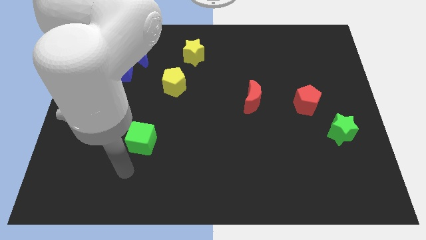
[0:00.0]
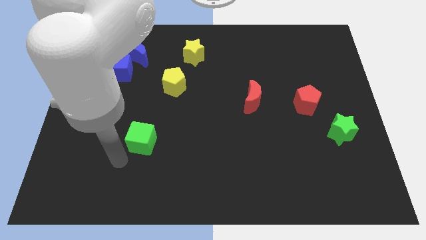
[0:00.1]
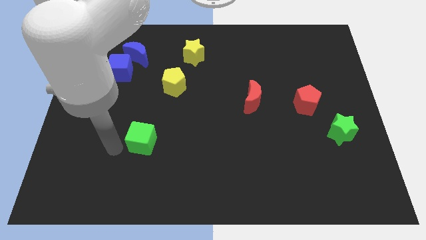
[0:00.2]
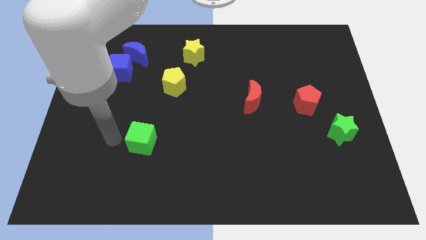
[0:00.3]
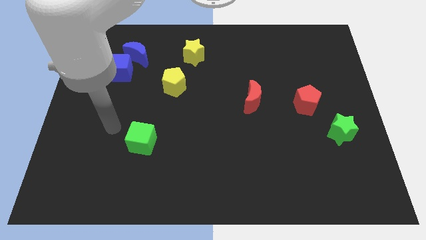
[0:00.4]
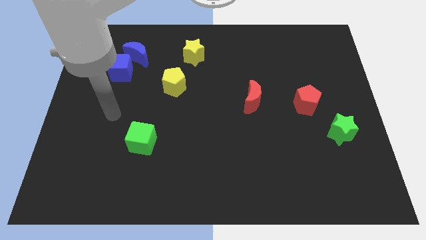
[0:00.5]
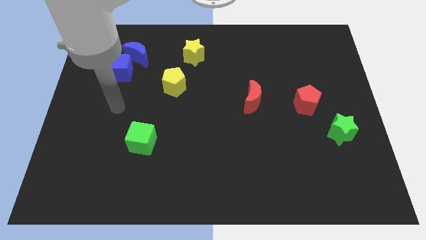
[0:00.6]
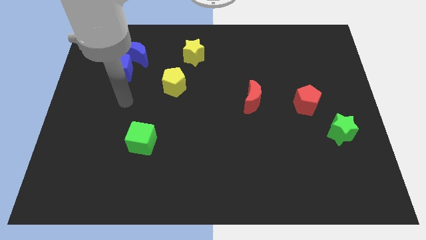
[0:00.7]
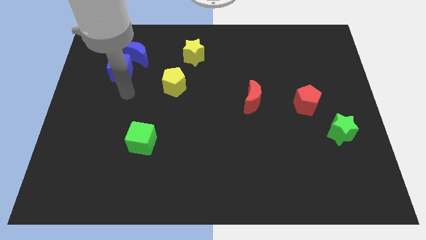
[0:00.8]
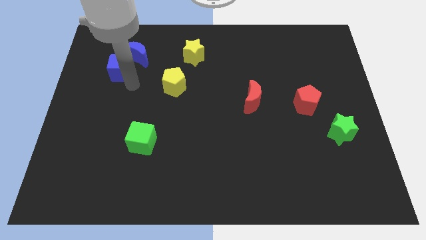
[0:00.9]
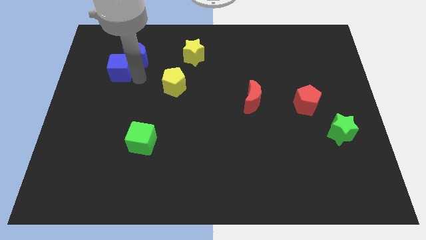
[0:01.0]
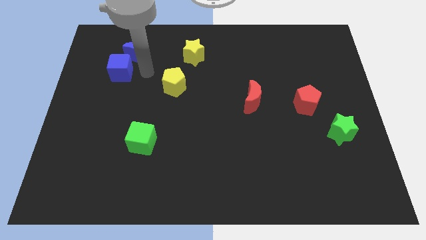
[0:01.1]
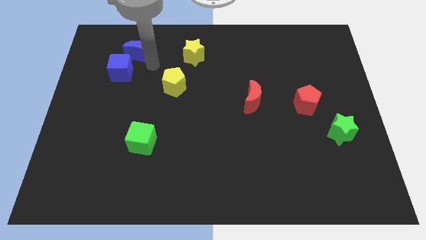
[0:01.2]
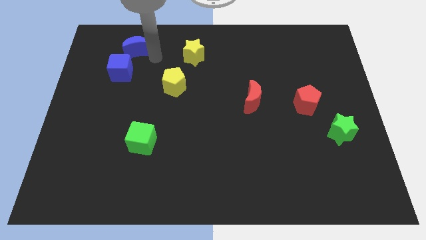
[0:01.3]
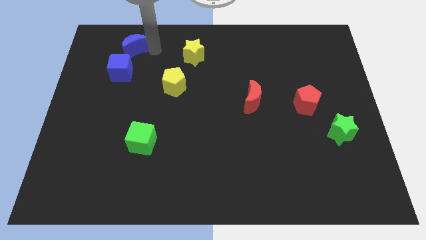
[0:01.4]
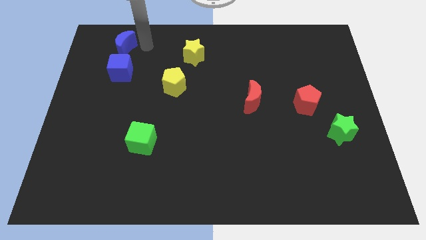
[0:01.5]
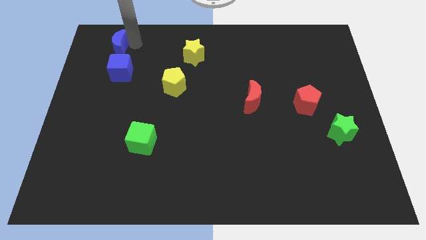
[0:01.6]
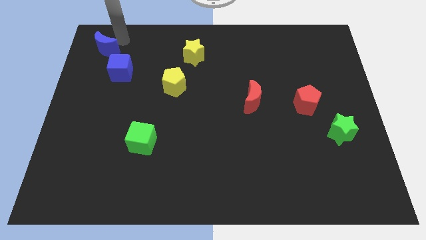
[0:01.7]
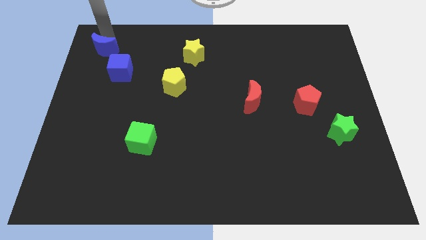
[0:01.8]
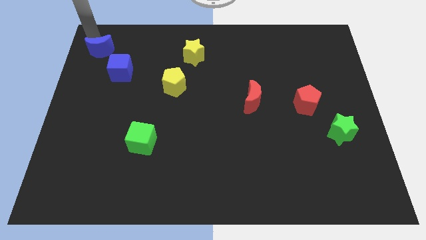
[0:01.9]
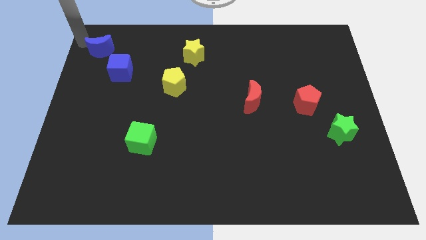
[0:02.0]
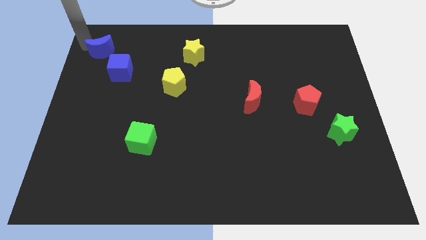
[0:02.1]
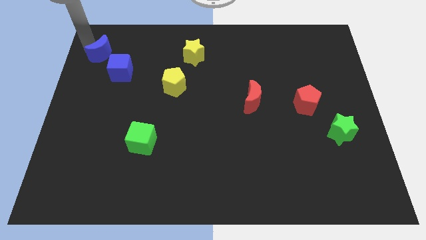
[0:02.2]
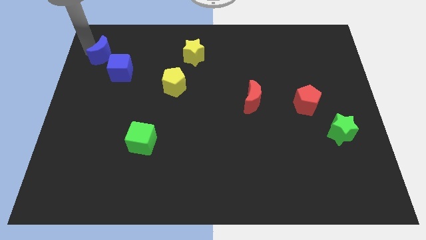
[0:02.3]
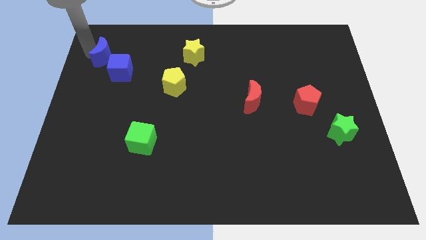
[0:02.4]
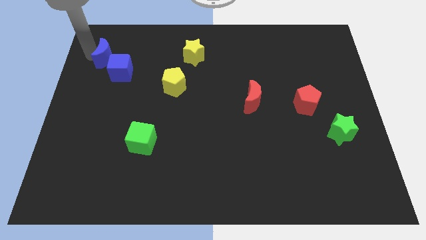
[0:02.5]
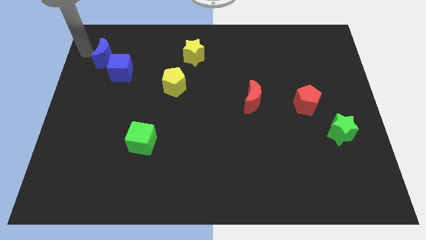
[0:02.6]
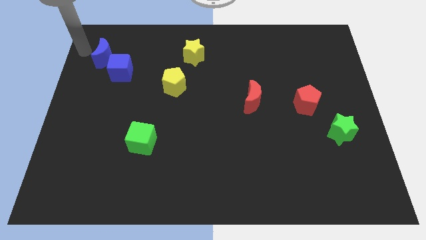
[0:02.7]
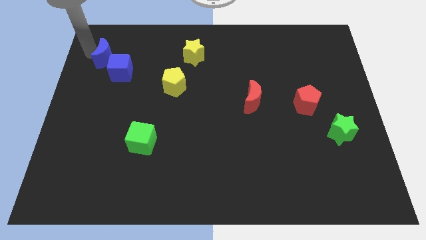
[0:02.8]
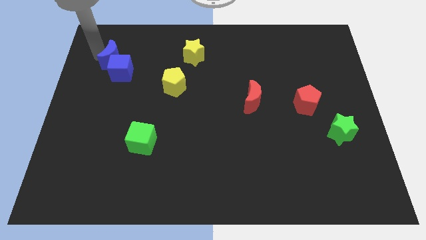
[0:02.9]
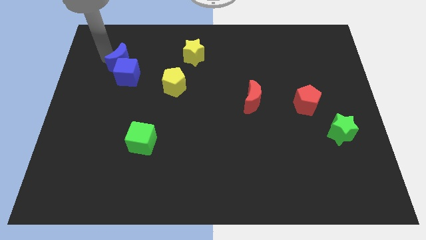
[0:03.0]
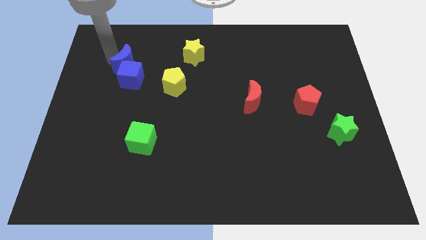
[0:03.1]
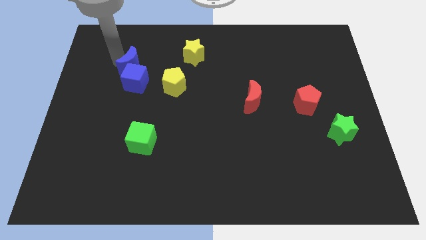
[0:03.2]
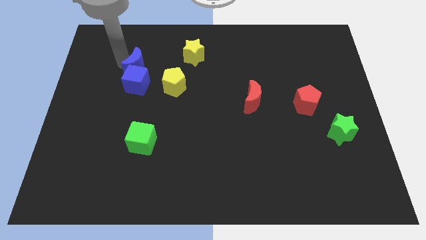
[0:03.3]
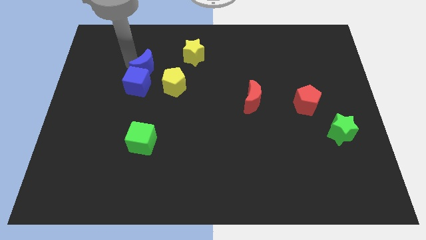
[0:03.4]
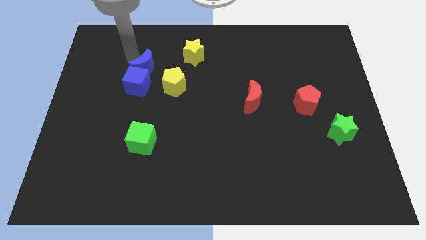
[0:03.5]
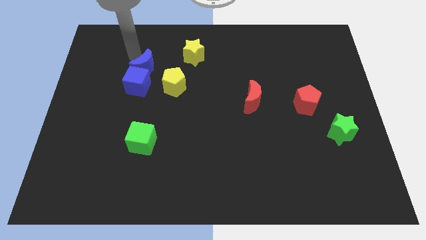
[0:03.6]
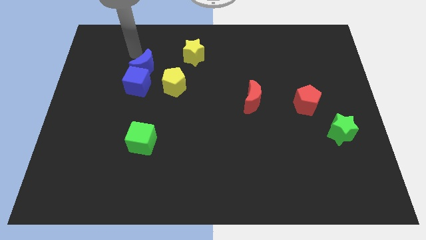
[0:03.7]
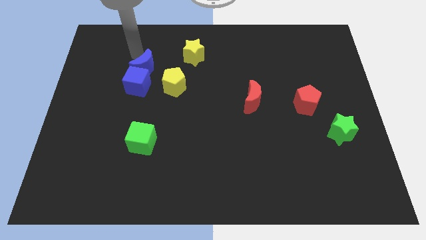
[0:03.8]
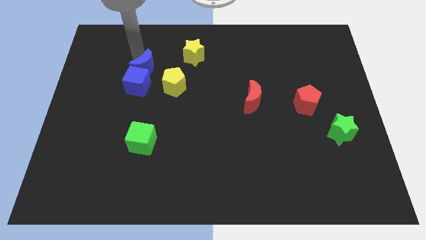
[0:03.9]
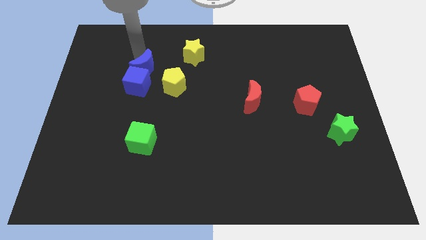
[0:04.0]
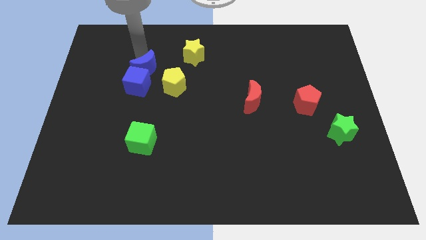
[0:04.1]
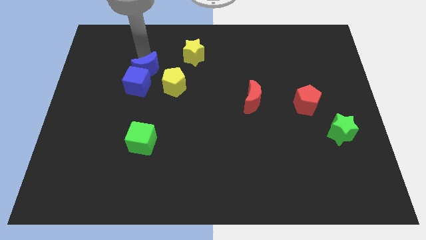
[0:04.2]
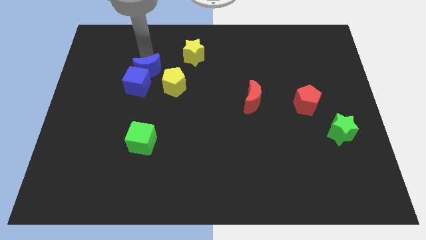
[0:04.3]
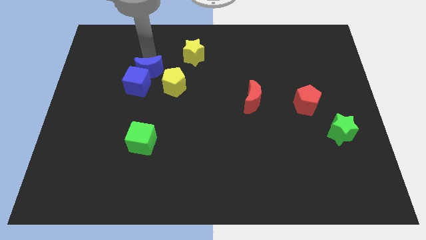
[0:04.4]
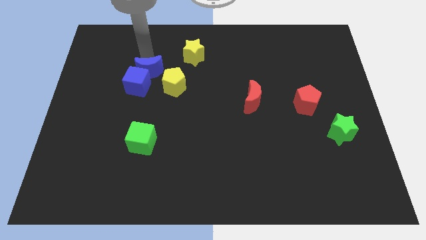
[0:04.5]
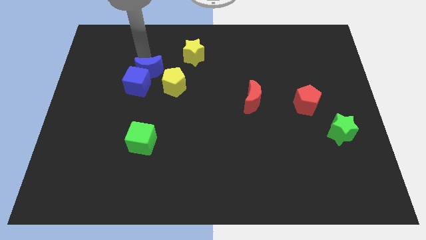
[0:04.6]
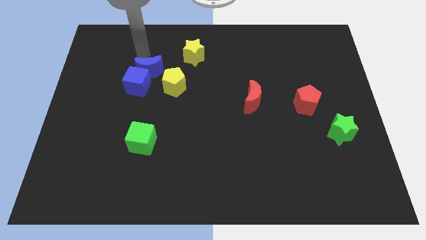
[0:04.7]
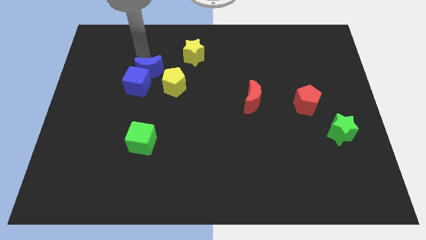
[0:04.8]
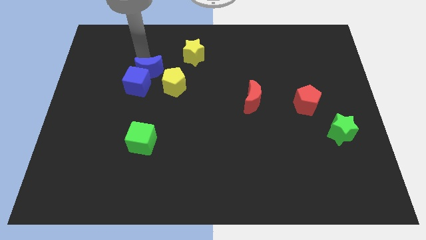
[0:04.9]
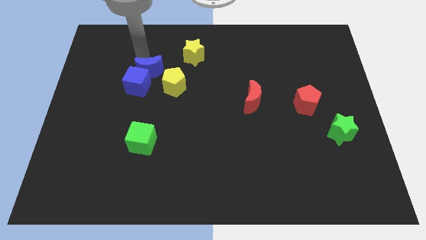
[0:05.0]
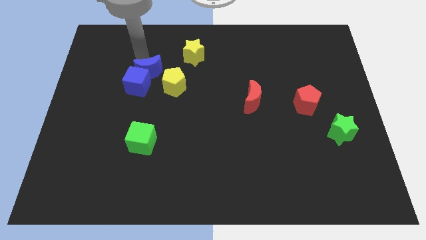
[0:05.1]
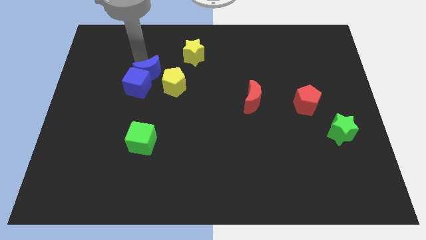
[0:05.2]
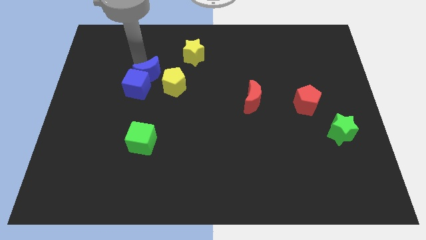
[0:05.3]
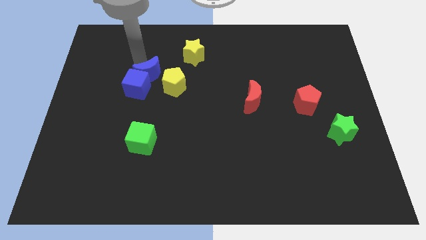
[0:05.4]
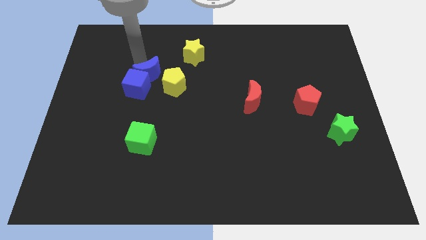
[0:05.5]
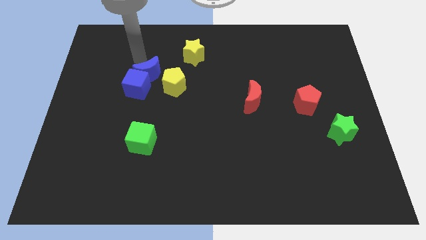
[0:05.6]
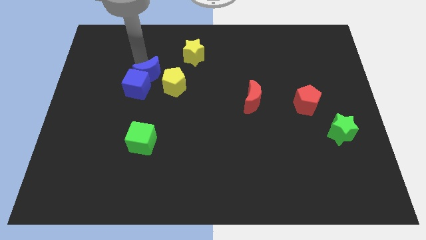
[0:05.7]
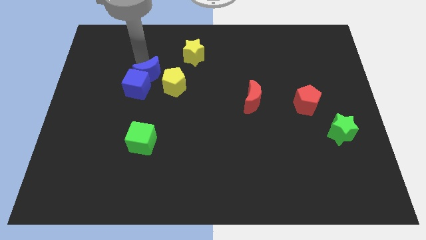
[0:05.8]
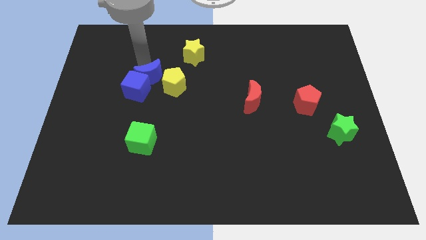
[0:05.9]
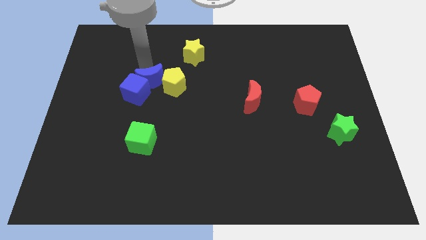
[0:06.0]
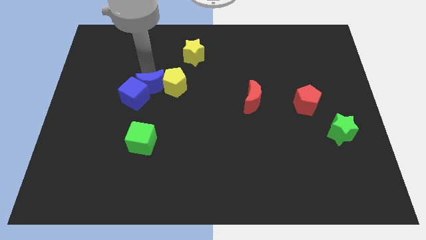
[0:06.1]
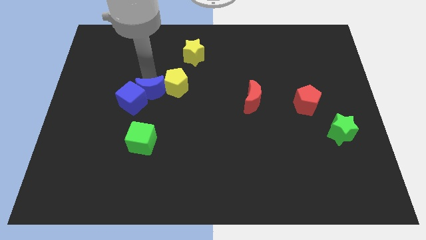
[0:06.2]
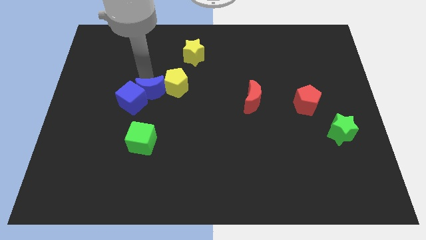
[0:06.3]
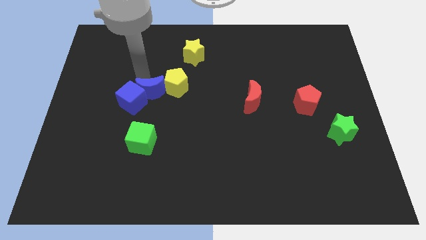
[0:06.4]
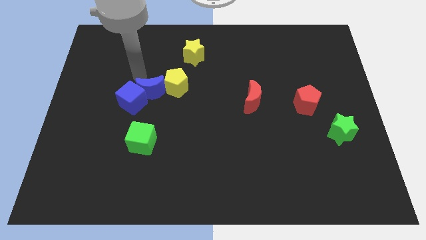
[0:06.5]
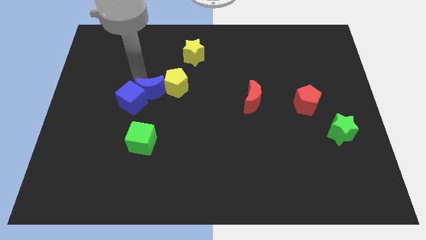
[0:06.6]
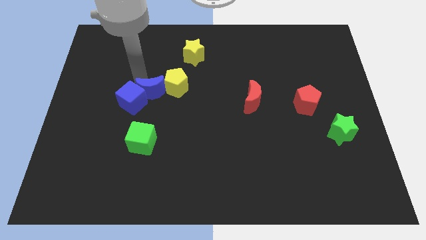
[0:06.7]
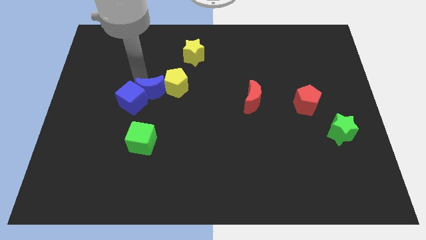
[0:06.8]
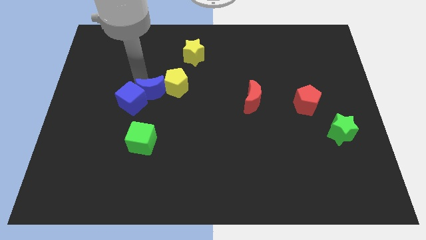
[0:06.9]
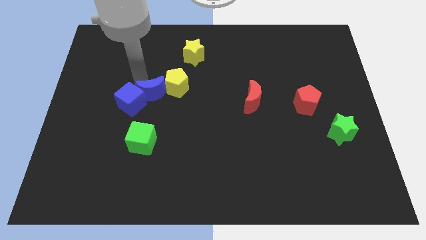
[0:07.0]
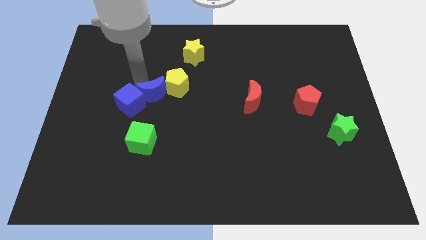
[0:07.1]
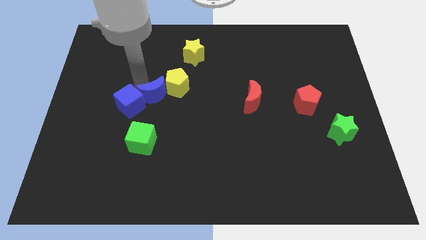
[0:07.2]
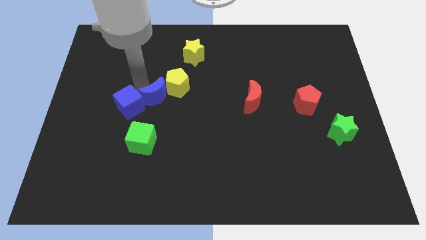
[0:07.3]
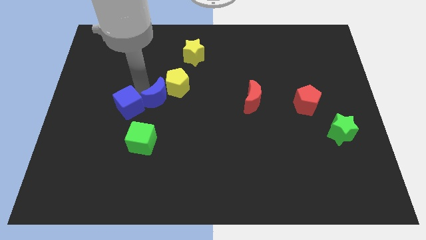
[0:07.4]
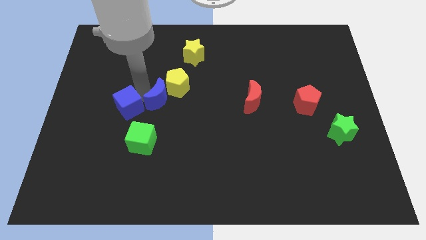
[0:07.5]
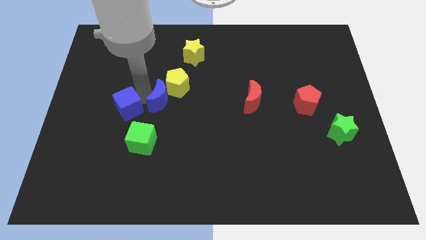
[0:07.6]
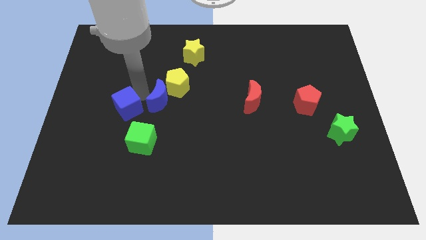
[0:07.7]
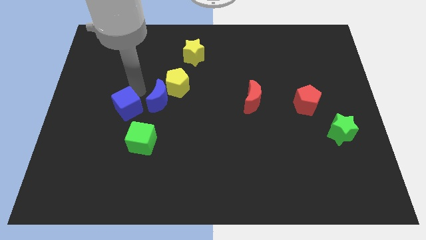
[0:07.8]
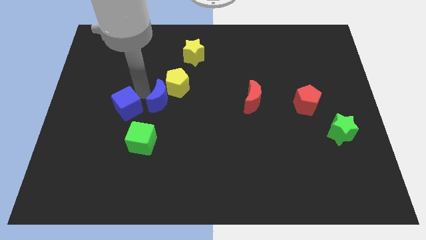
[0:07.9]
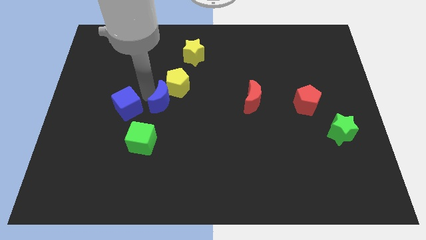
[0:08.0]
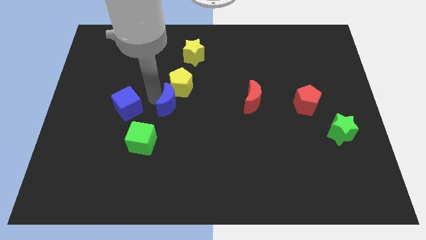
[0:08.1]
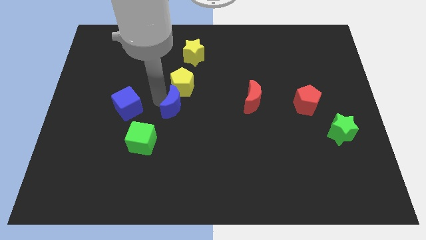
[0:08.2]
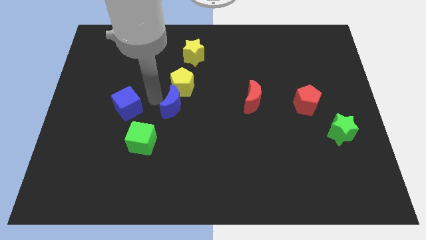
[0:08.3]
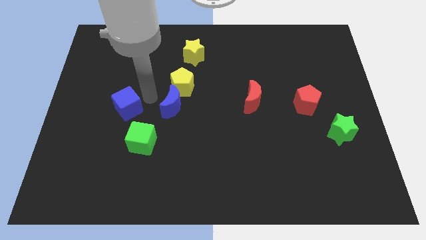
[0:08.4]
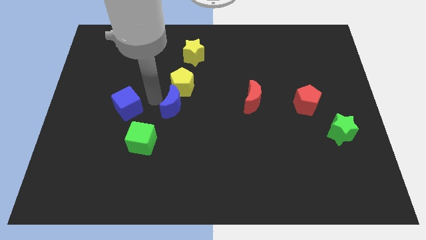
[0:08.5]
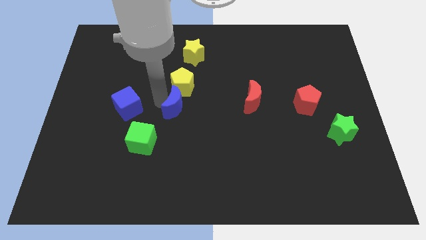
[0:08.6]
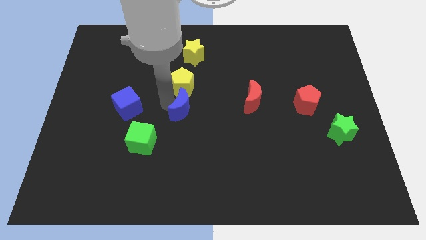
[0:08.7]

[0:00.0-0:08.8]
slide the blue moon down and then right
